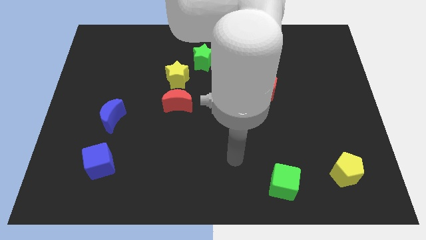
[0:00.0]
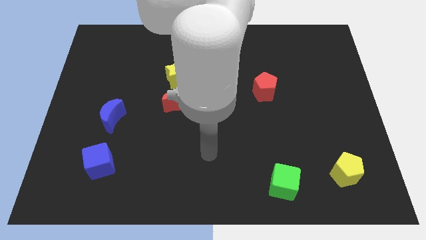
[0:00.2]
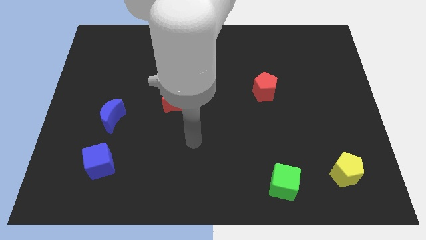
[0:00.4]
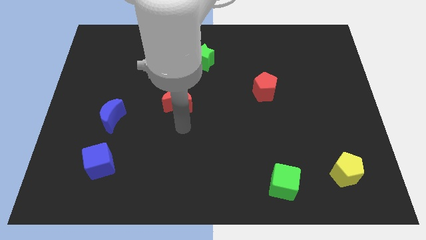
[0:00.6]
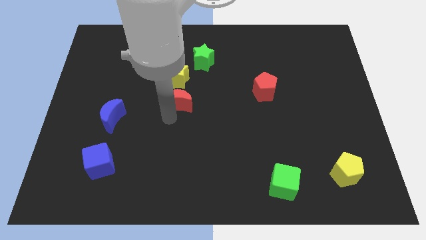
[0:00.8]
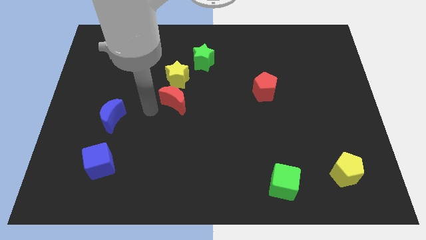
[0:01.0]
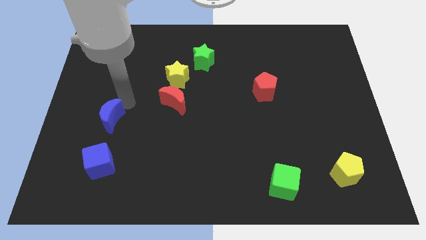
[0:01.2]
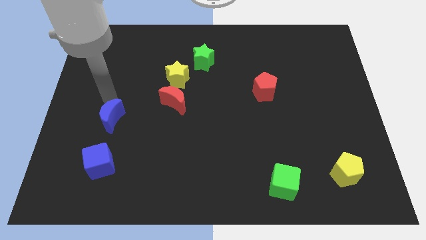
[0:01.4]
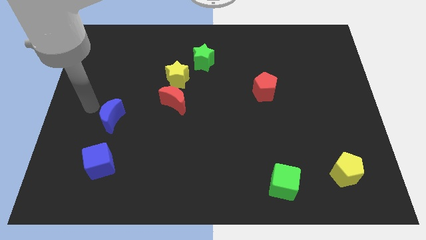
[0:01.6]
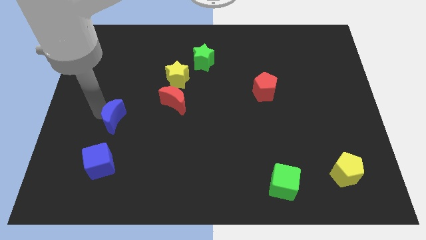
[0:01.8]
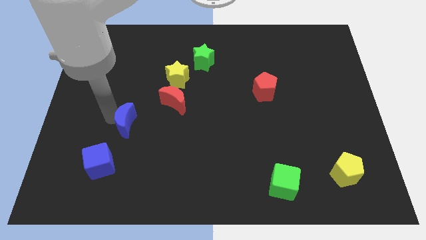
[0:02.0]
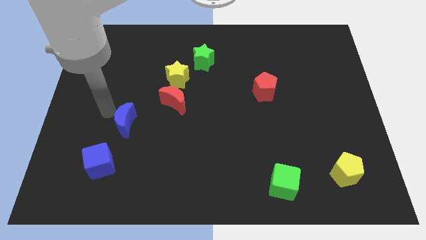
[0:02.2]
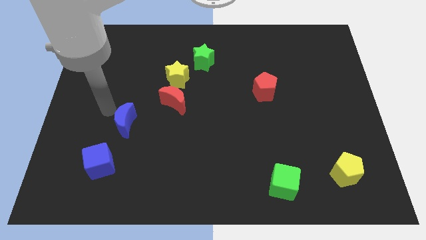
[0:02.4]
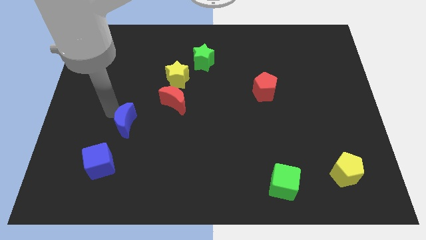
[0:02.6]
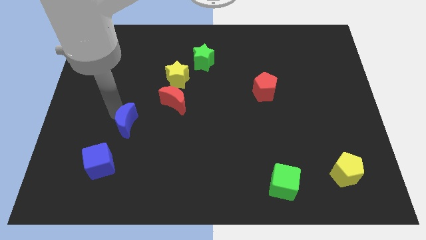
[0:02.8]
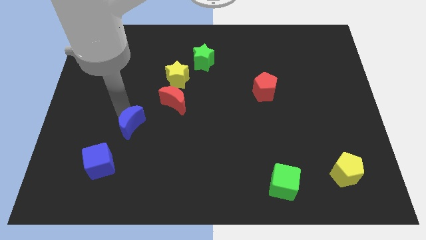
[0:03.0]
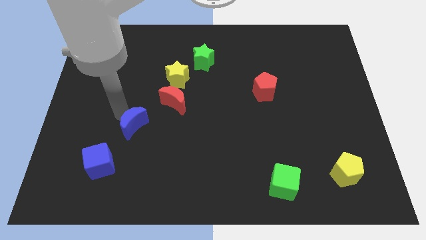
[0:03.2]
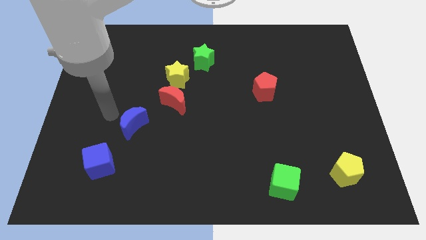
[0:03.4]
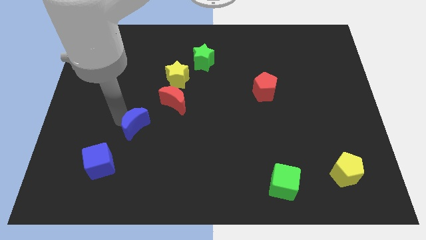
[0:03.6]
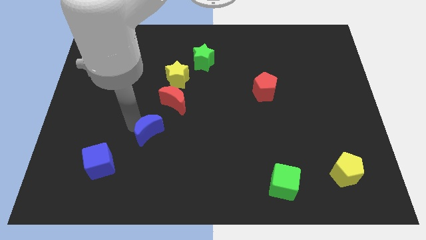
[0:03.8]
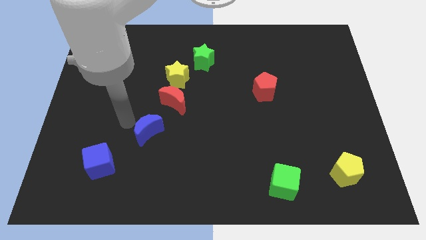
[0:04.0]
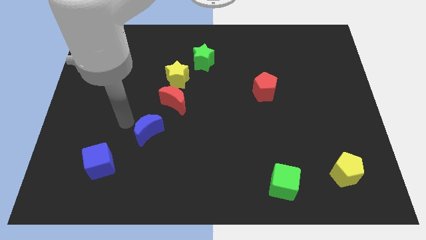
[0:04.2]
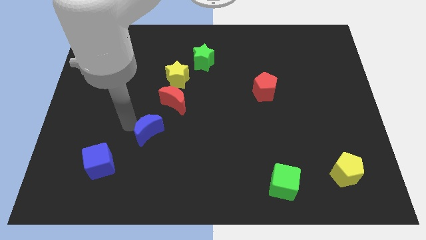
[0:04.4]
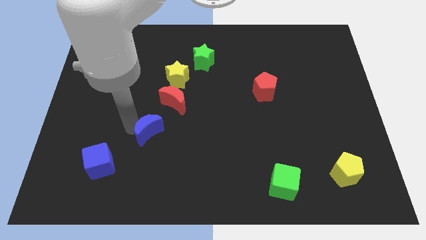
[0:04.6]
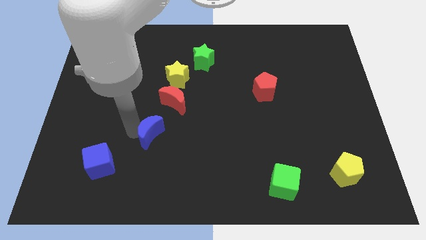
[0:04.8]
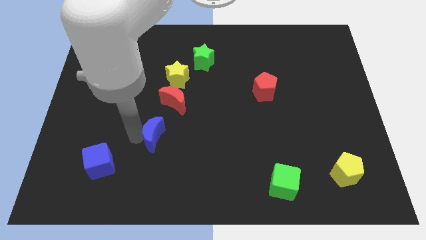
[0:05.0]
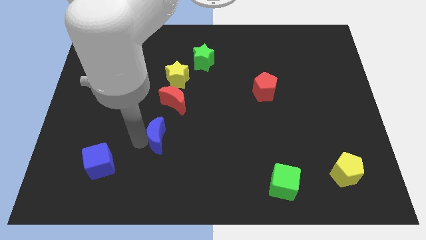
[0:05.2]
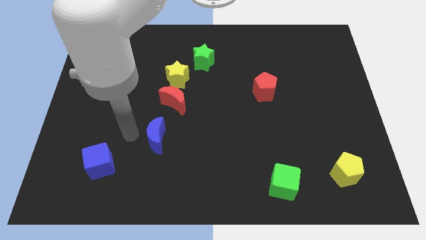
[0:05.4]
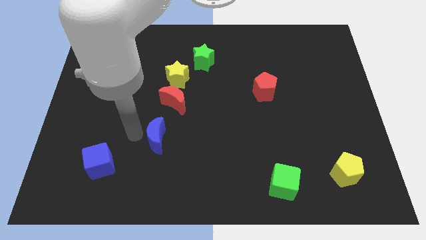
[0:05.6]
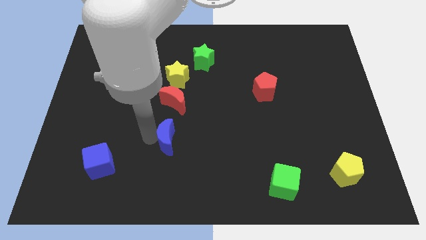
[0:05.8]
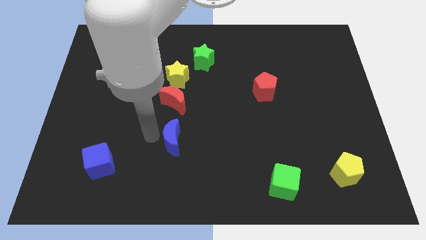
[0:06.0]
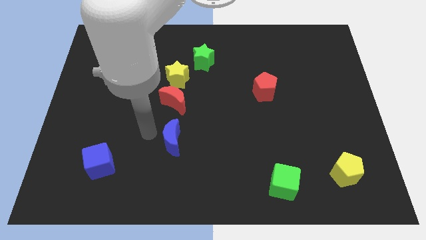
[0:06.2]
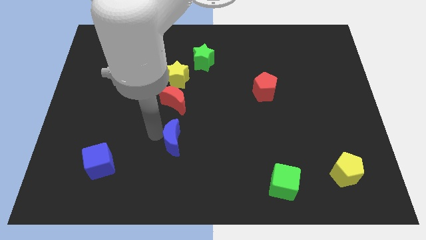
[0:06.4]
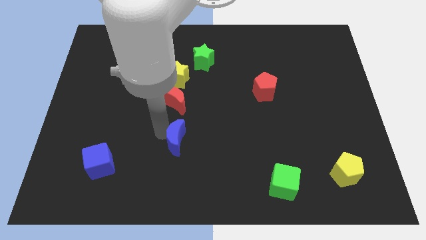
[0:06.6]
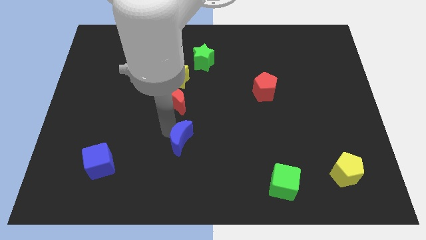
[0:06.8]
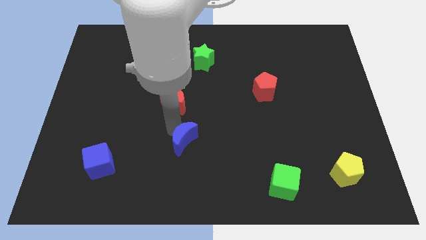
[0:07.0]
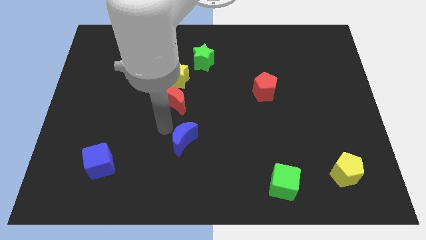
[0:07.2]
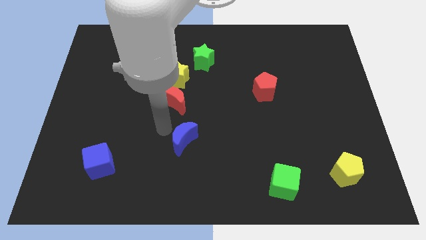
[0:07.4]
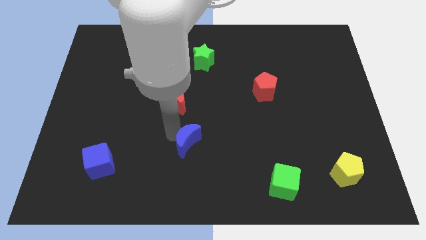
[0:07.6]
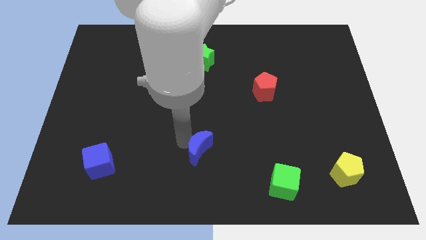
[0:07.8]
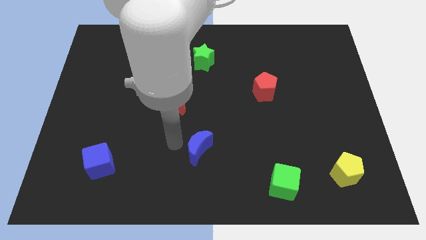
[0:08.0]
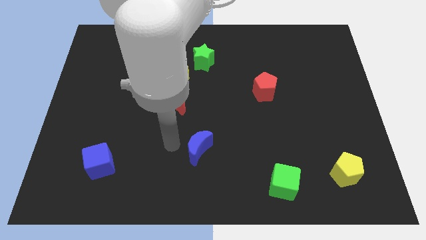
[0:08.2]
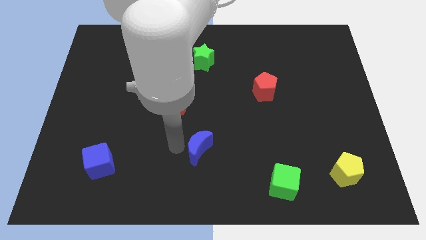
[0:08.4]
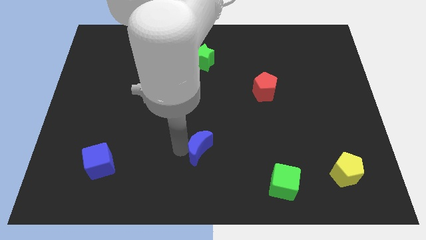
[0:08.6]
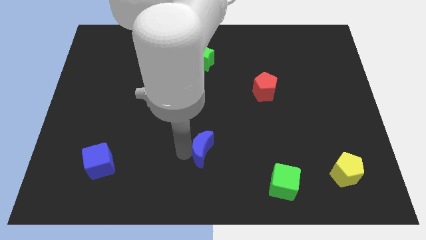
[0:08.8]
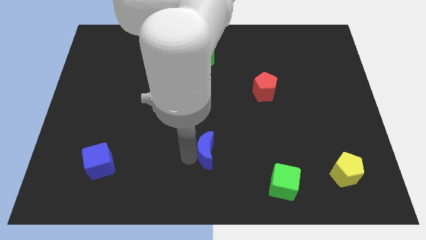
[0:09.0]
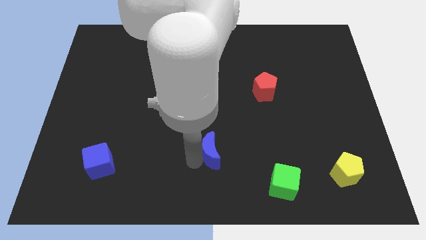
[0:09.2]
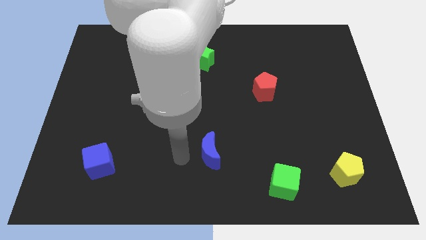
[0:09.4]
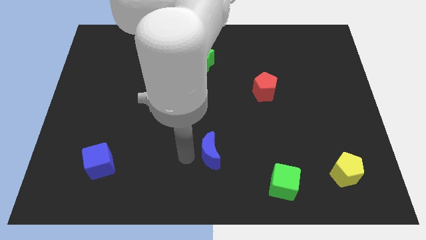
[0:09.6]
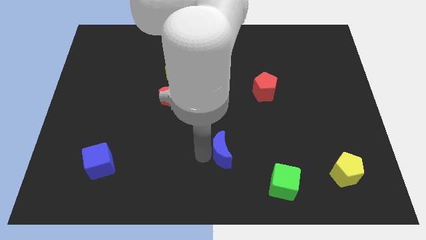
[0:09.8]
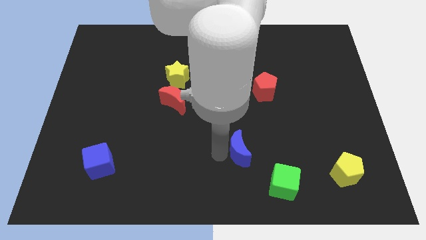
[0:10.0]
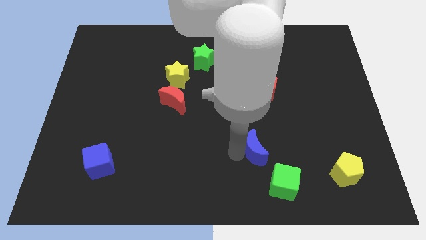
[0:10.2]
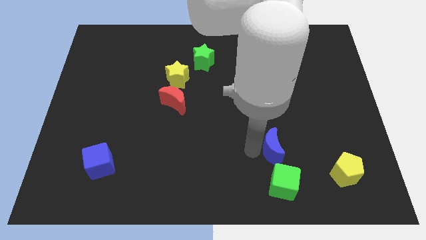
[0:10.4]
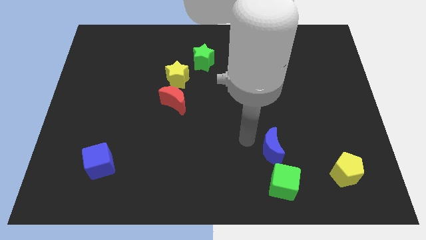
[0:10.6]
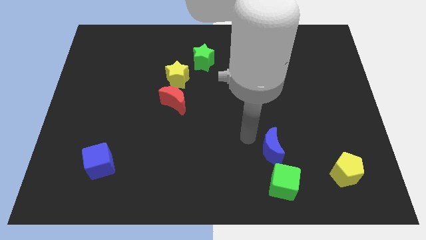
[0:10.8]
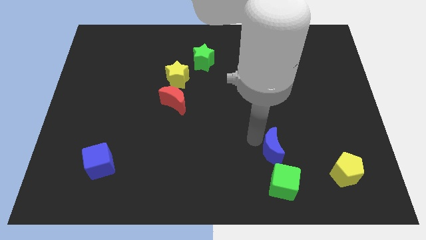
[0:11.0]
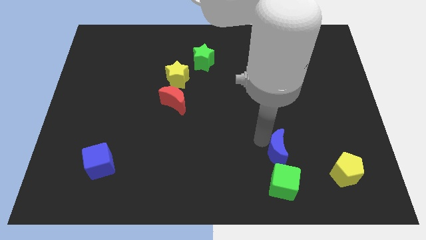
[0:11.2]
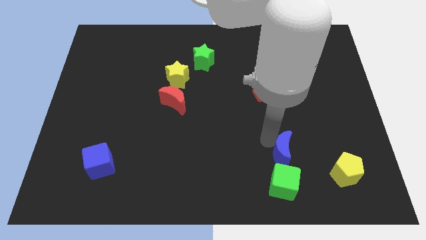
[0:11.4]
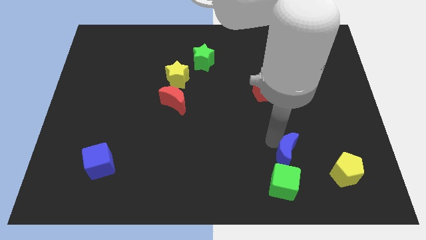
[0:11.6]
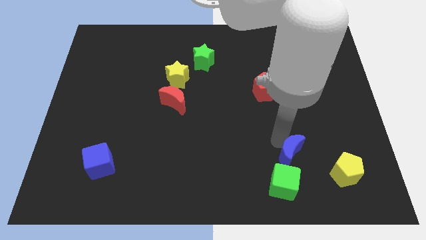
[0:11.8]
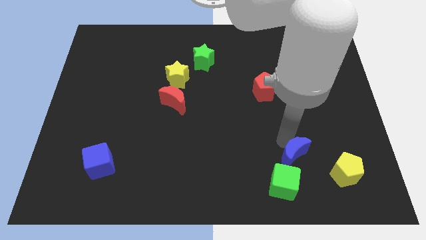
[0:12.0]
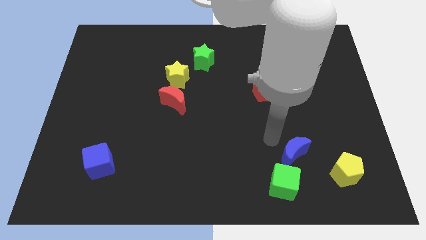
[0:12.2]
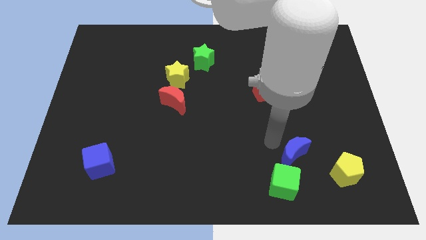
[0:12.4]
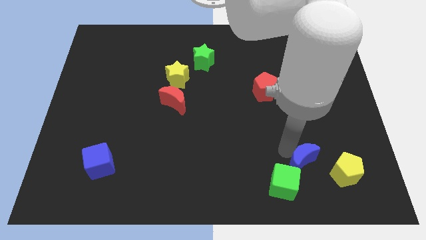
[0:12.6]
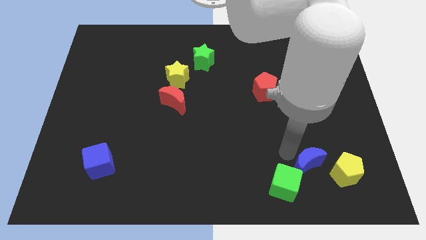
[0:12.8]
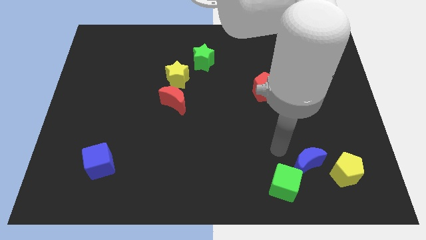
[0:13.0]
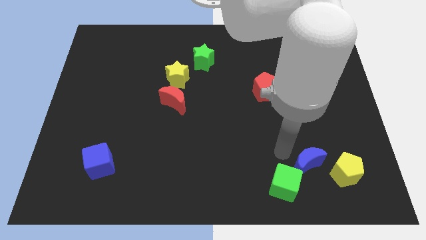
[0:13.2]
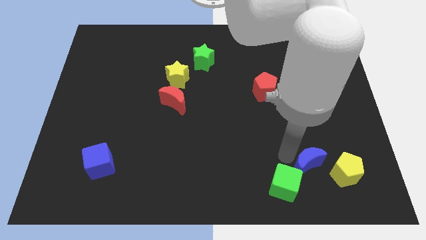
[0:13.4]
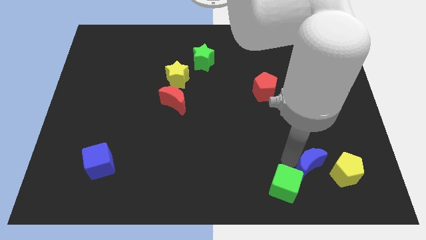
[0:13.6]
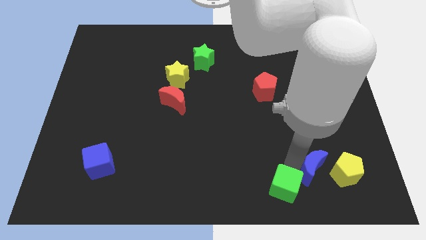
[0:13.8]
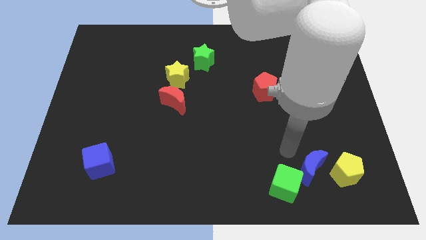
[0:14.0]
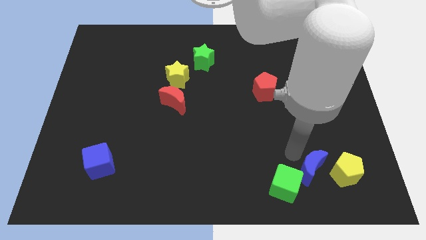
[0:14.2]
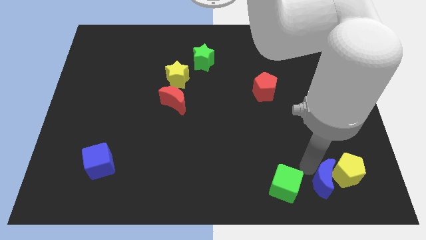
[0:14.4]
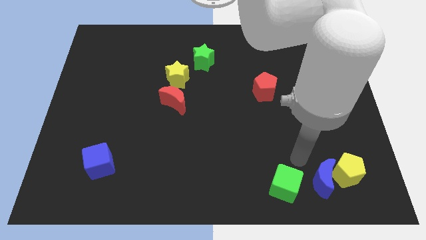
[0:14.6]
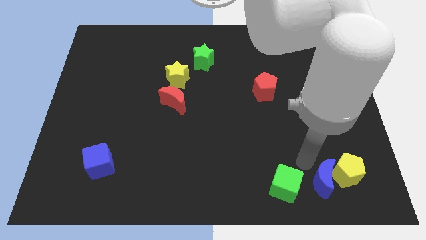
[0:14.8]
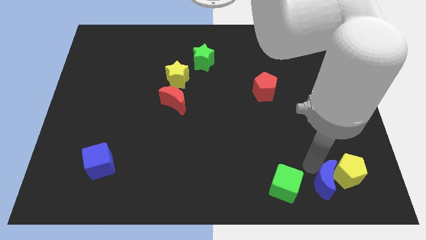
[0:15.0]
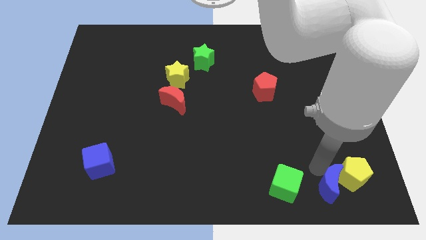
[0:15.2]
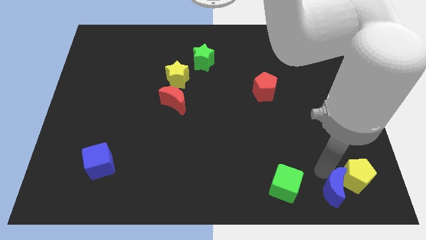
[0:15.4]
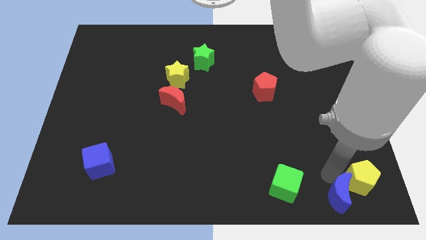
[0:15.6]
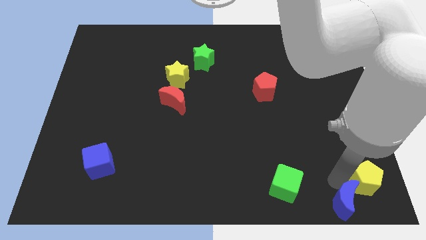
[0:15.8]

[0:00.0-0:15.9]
slide the blue moon to the bottom right of the board
